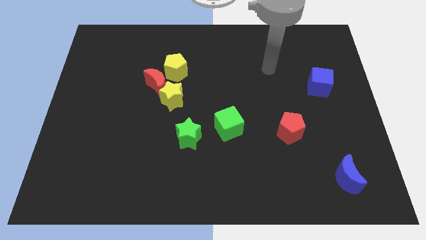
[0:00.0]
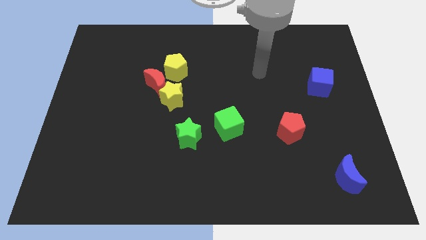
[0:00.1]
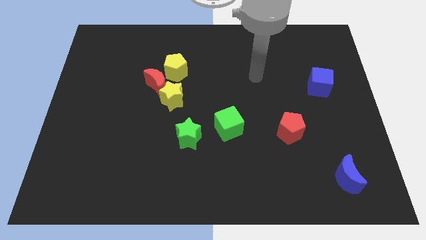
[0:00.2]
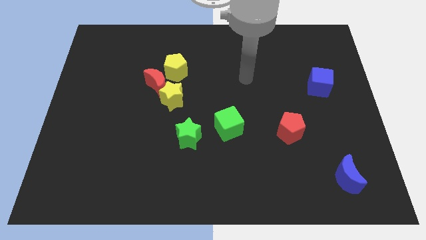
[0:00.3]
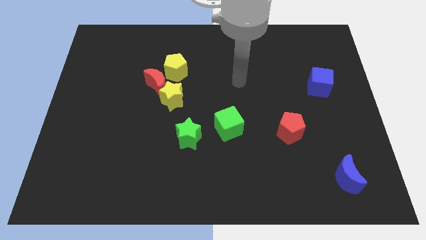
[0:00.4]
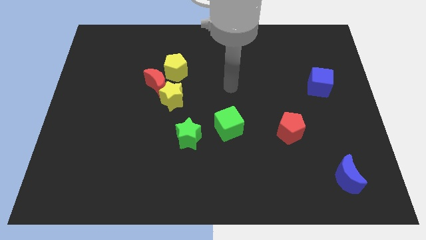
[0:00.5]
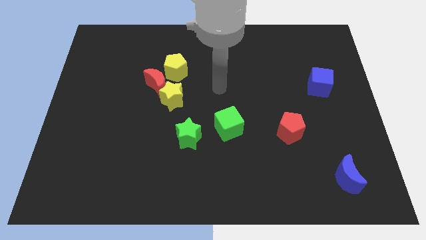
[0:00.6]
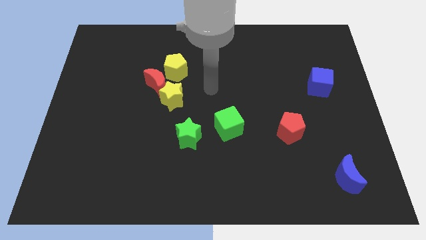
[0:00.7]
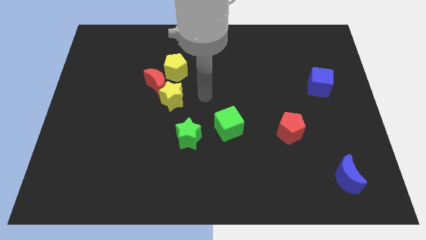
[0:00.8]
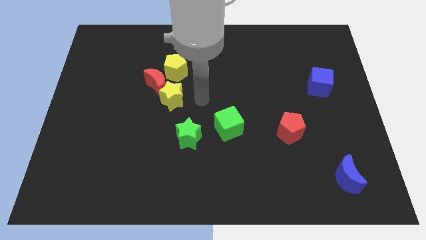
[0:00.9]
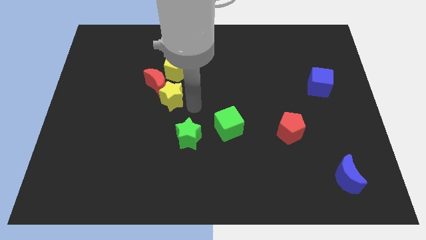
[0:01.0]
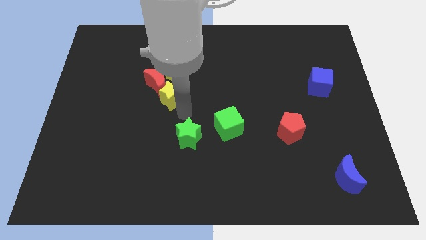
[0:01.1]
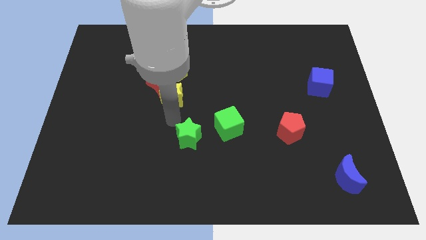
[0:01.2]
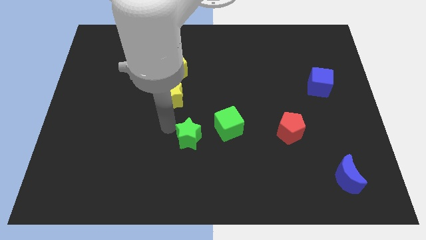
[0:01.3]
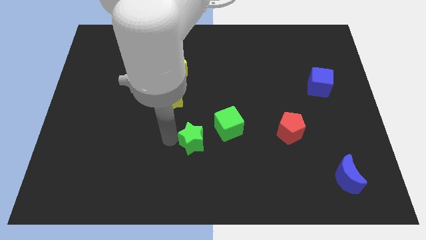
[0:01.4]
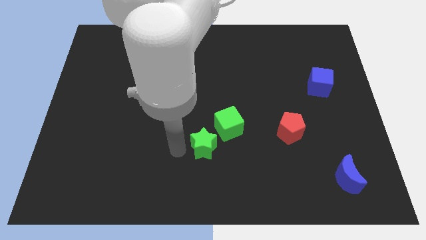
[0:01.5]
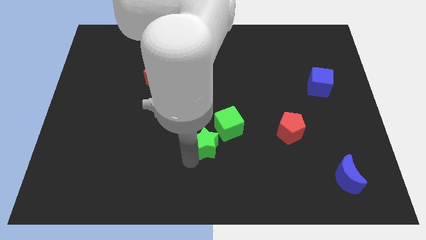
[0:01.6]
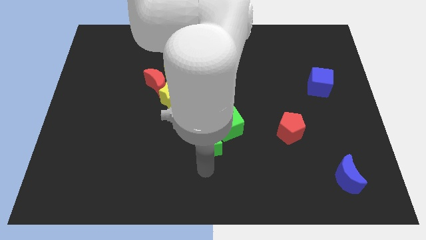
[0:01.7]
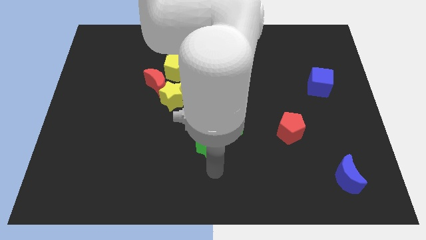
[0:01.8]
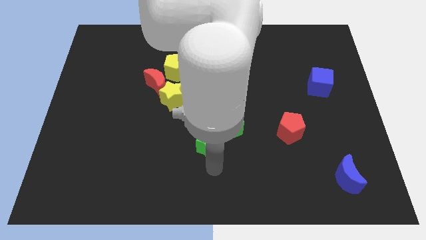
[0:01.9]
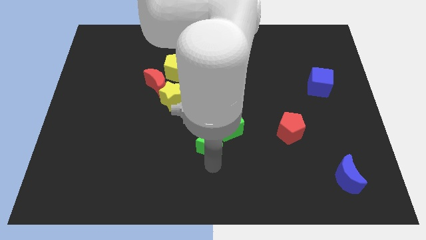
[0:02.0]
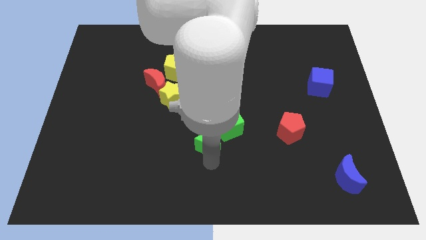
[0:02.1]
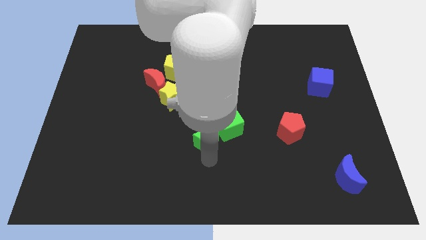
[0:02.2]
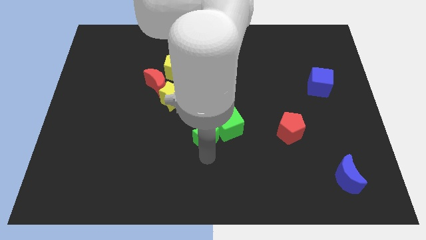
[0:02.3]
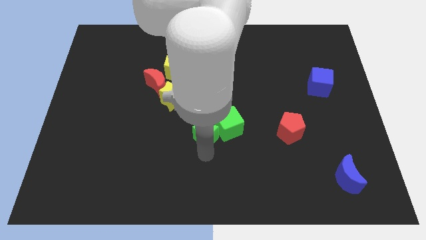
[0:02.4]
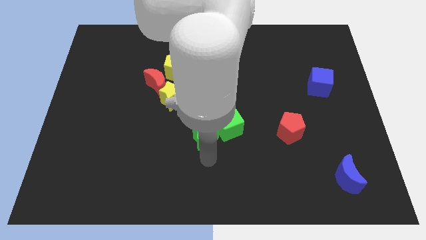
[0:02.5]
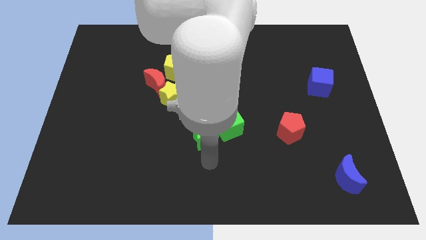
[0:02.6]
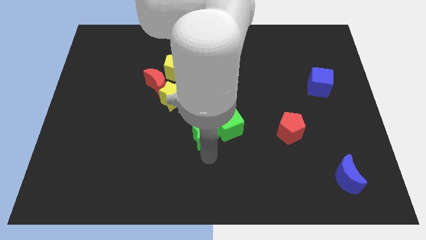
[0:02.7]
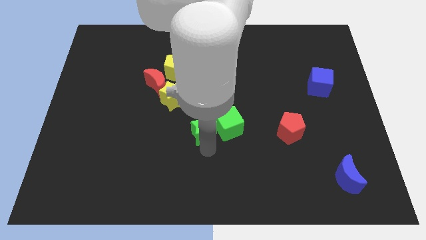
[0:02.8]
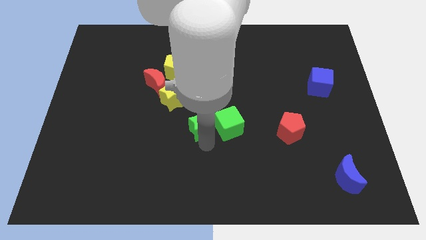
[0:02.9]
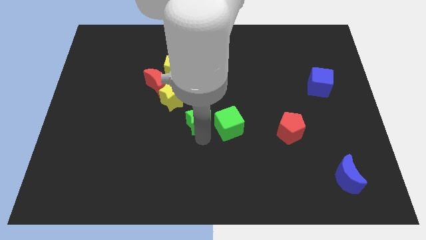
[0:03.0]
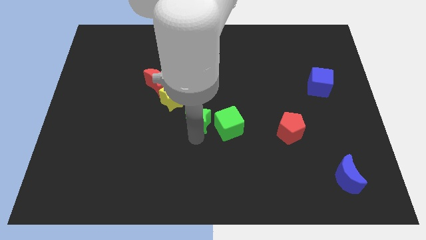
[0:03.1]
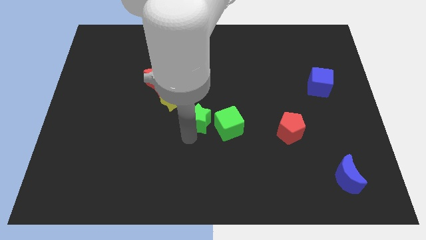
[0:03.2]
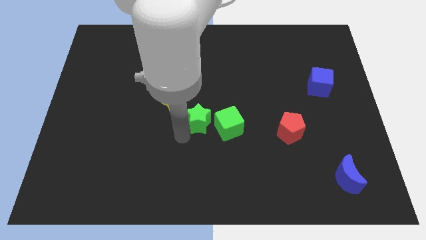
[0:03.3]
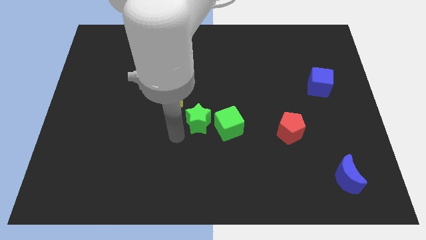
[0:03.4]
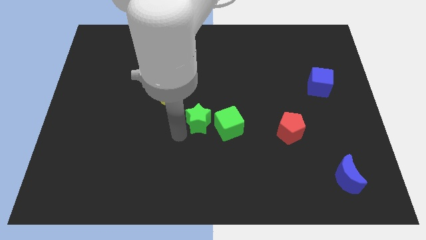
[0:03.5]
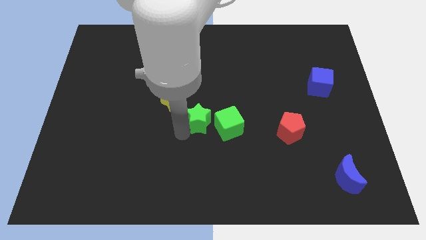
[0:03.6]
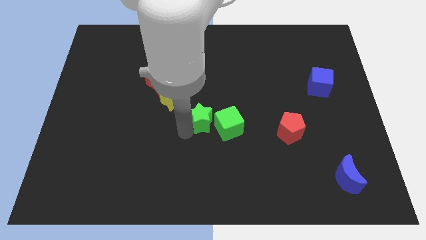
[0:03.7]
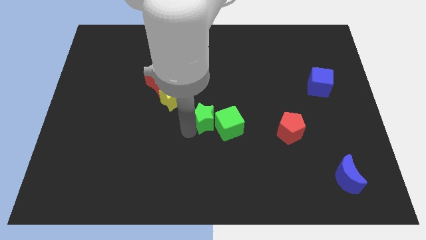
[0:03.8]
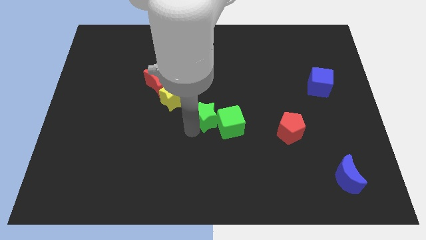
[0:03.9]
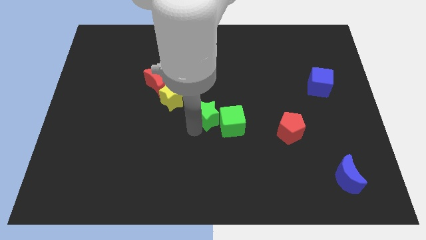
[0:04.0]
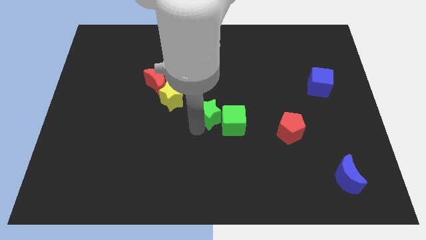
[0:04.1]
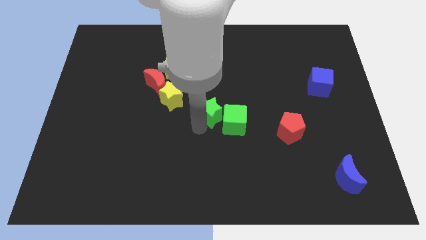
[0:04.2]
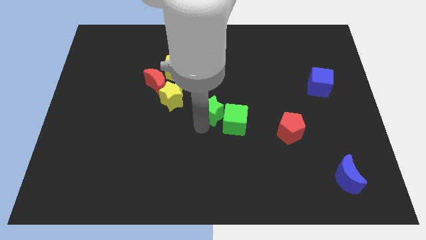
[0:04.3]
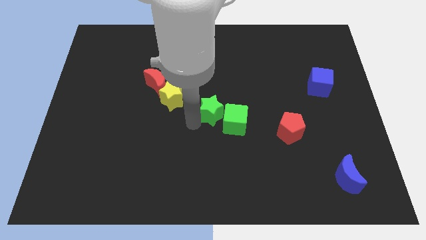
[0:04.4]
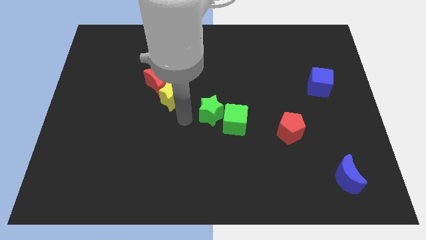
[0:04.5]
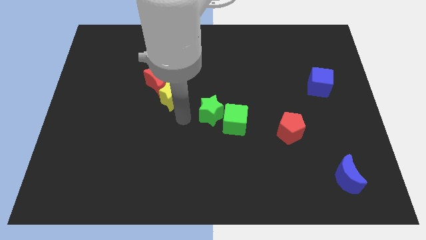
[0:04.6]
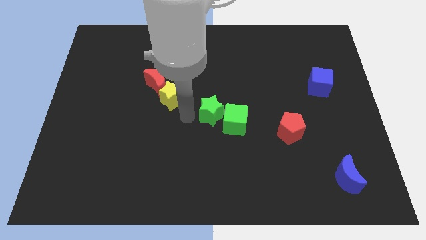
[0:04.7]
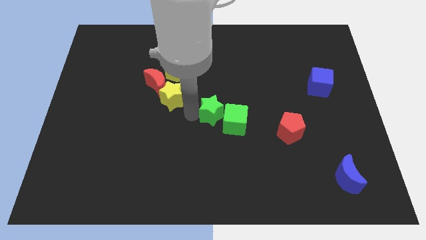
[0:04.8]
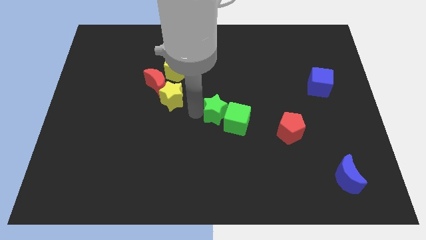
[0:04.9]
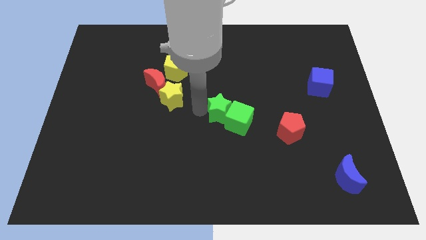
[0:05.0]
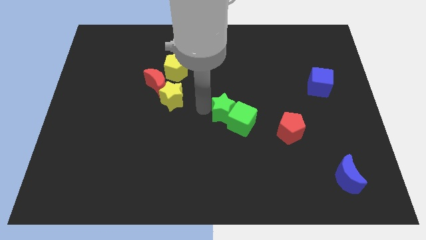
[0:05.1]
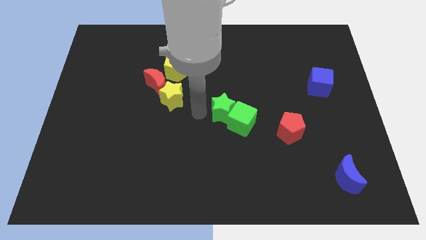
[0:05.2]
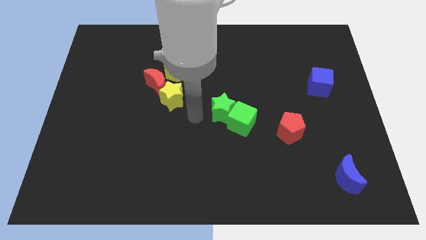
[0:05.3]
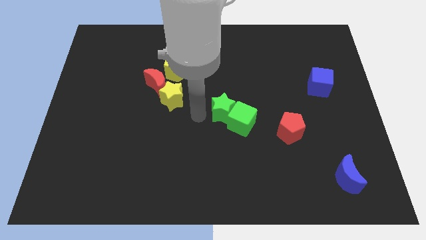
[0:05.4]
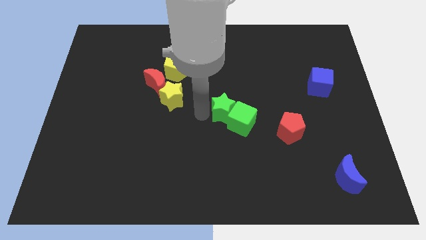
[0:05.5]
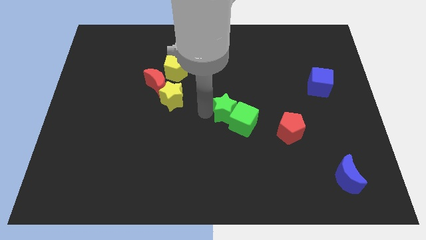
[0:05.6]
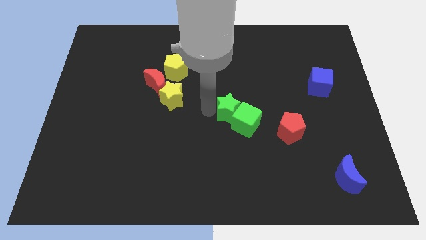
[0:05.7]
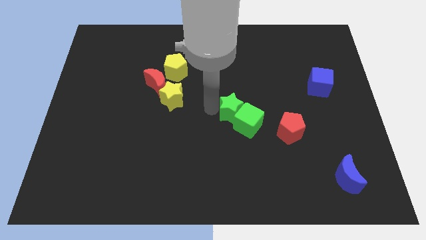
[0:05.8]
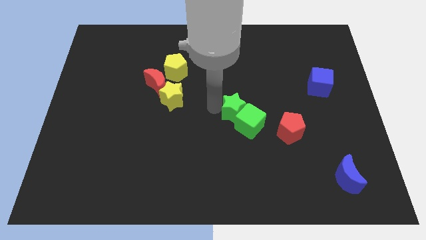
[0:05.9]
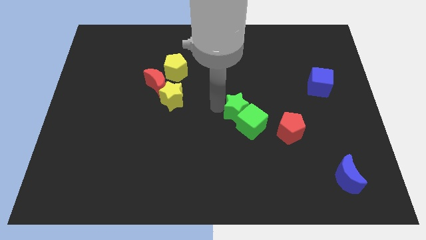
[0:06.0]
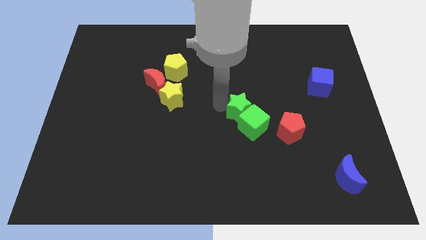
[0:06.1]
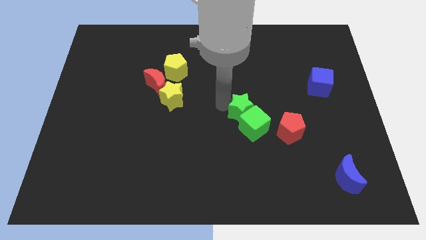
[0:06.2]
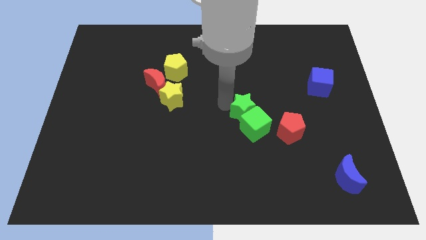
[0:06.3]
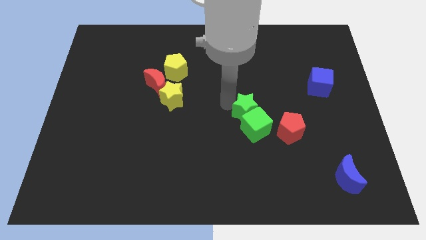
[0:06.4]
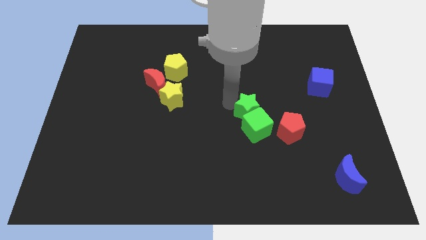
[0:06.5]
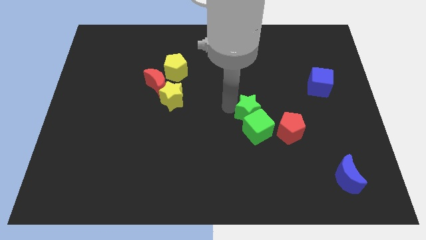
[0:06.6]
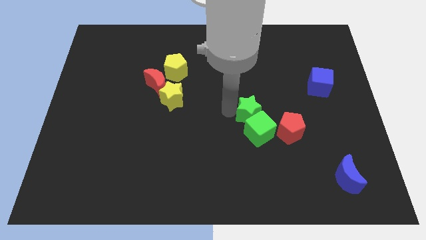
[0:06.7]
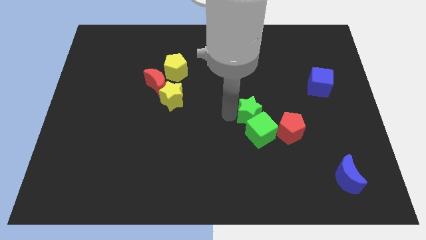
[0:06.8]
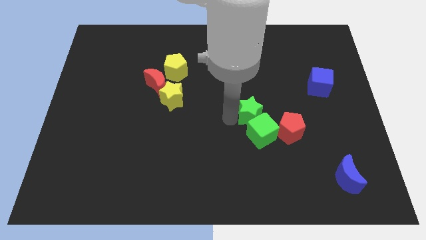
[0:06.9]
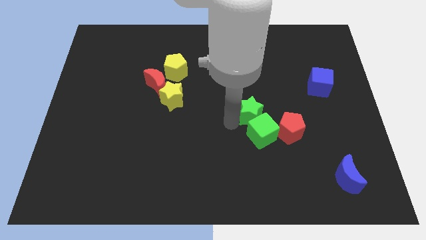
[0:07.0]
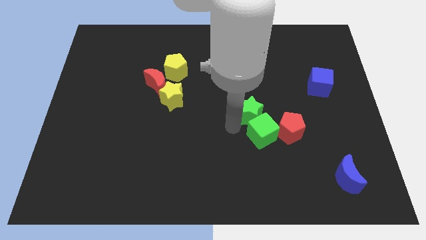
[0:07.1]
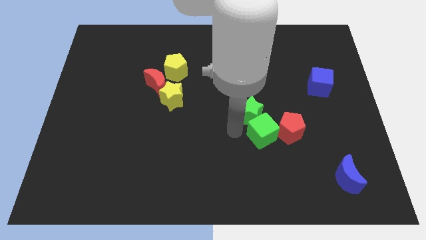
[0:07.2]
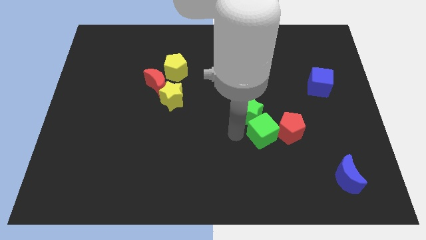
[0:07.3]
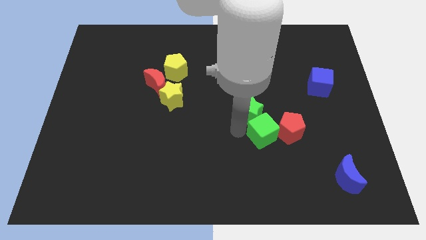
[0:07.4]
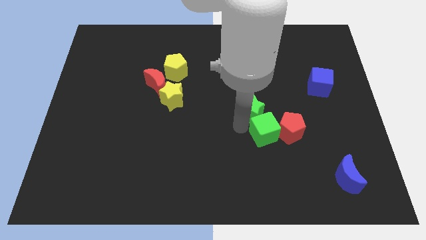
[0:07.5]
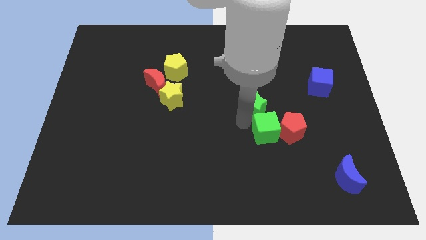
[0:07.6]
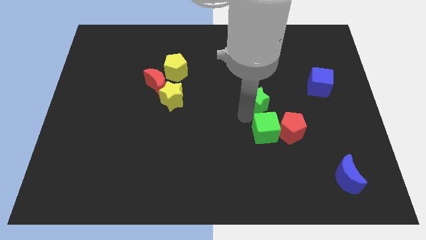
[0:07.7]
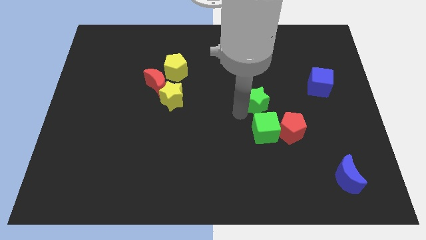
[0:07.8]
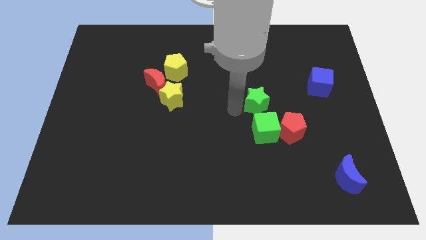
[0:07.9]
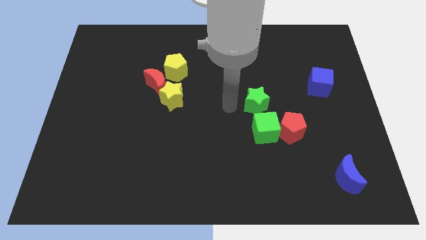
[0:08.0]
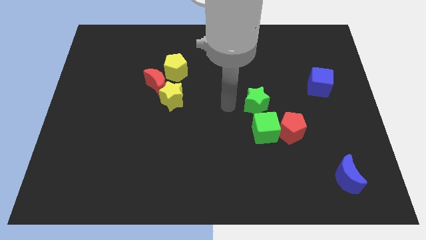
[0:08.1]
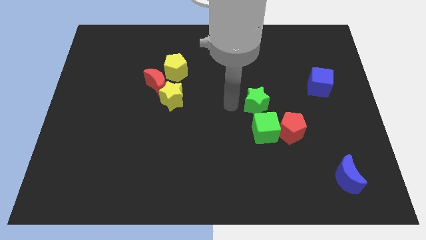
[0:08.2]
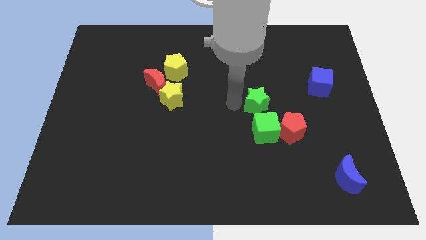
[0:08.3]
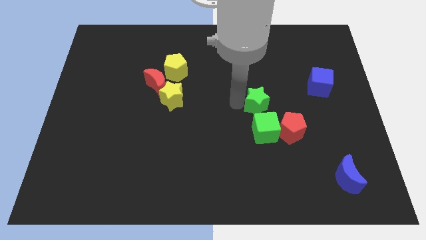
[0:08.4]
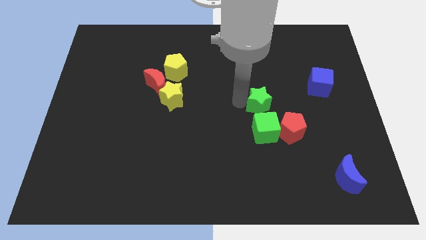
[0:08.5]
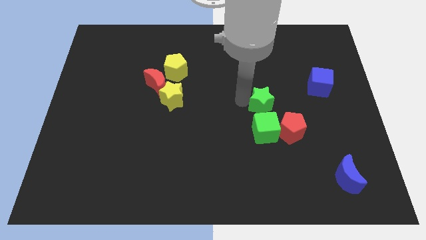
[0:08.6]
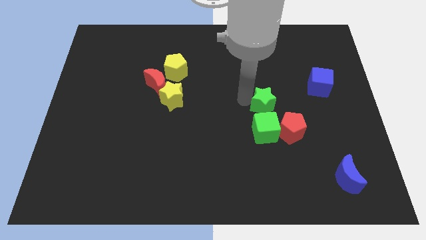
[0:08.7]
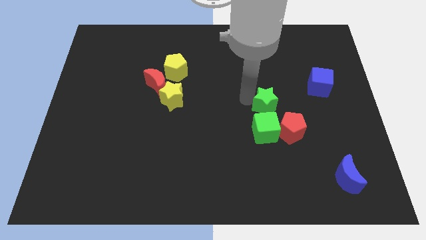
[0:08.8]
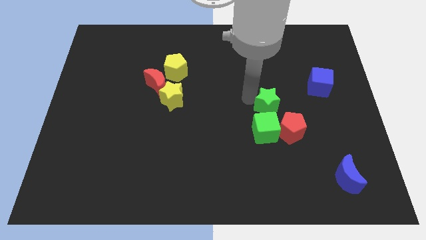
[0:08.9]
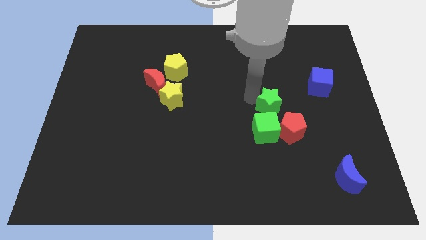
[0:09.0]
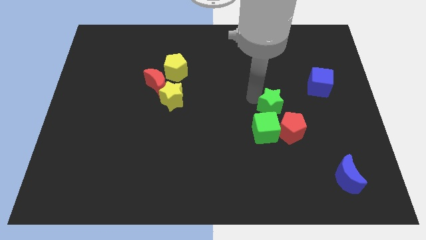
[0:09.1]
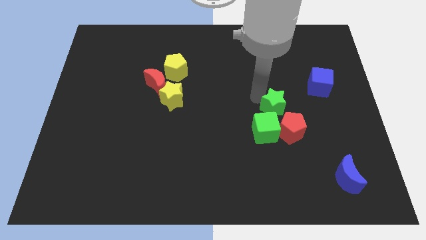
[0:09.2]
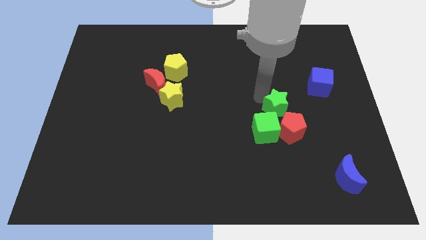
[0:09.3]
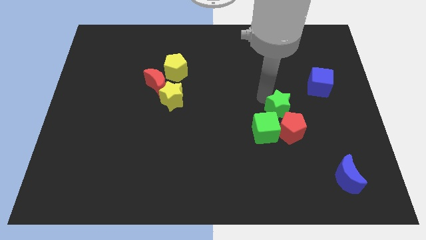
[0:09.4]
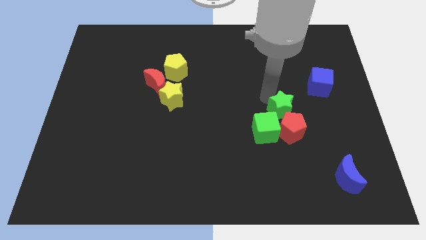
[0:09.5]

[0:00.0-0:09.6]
push the green star diagonally down and to the left of the blue cube
